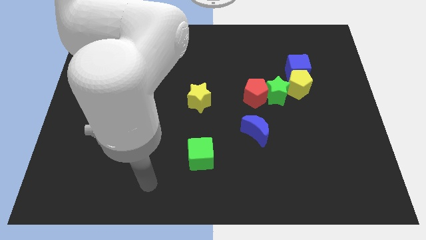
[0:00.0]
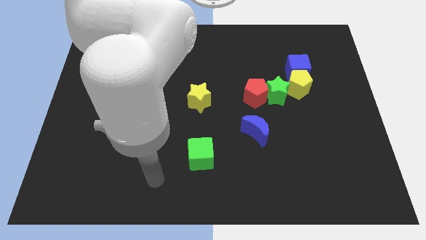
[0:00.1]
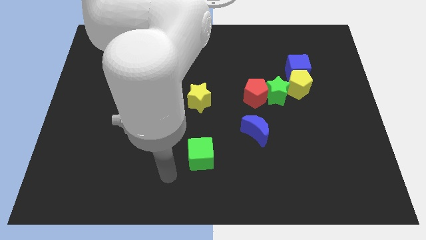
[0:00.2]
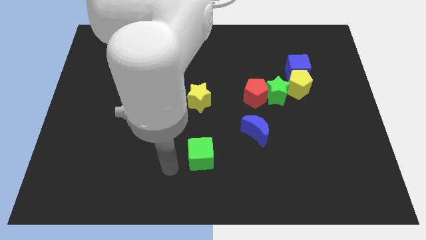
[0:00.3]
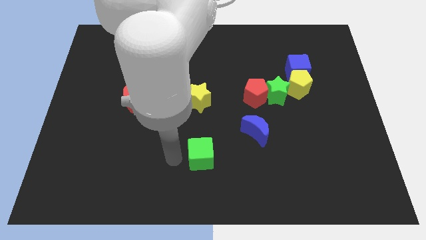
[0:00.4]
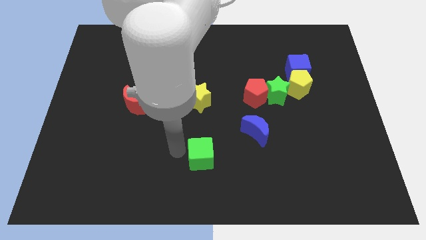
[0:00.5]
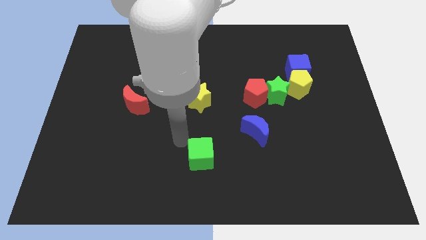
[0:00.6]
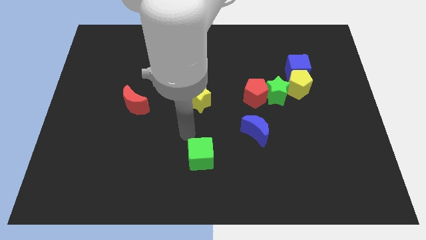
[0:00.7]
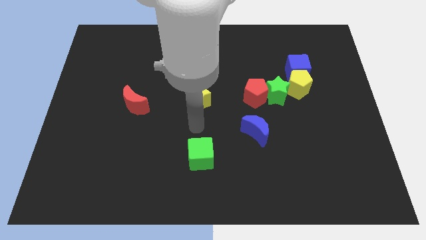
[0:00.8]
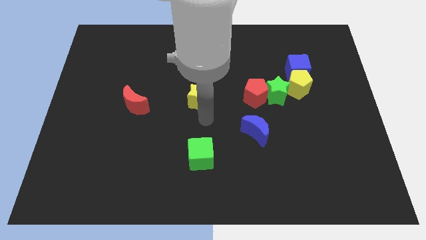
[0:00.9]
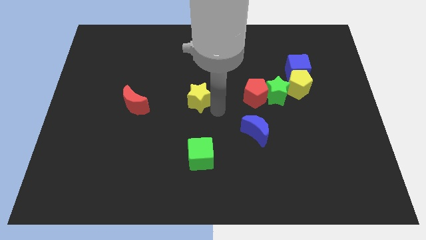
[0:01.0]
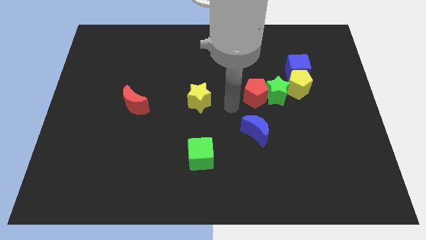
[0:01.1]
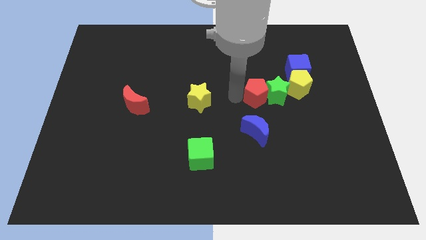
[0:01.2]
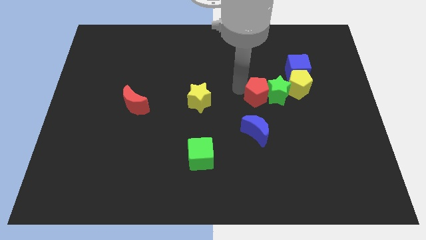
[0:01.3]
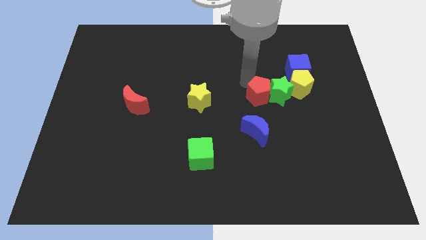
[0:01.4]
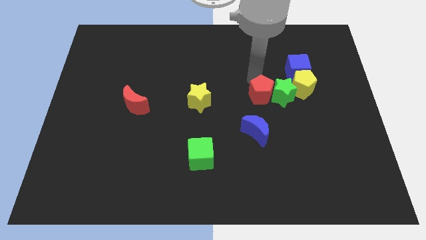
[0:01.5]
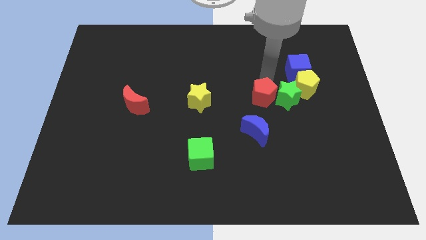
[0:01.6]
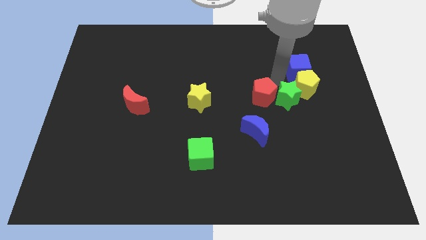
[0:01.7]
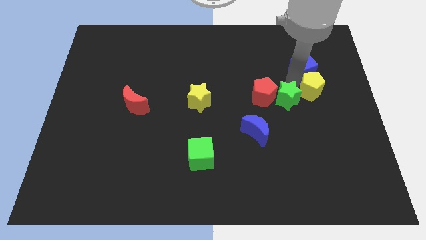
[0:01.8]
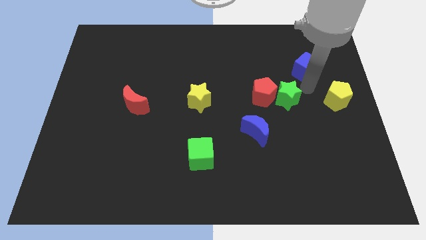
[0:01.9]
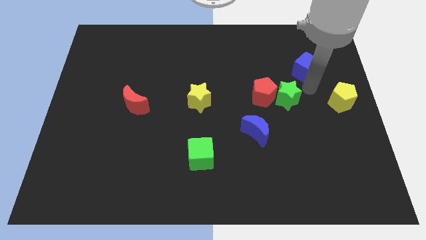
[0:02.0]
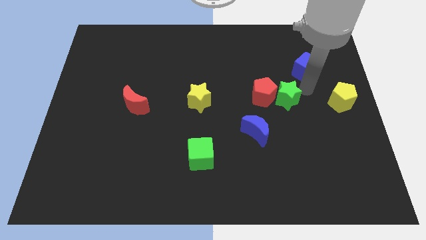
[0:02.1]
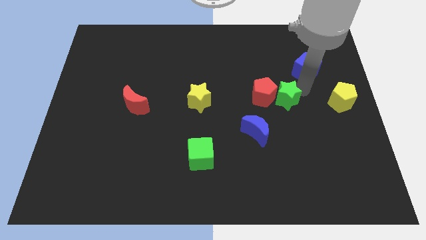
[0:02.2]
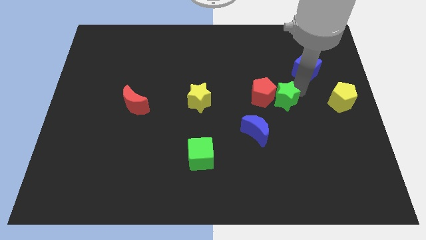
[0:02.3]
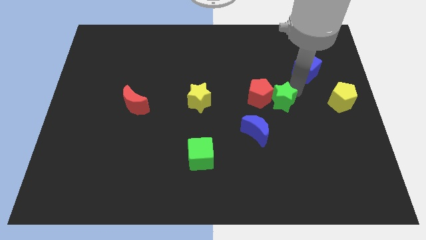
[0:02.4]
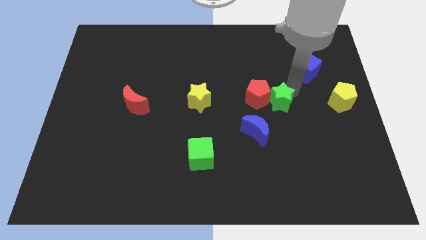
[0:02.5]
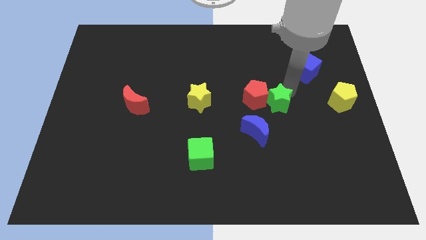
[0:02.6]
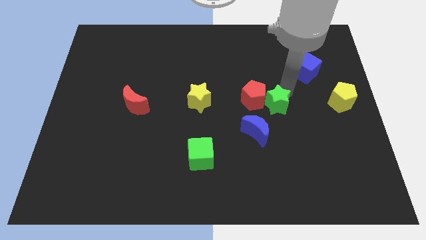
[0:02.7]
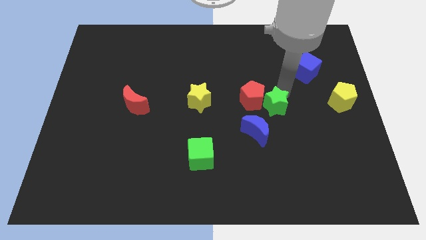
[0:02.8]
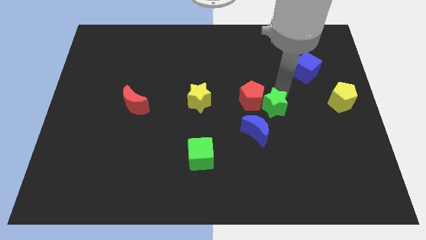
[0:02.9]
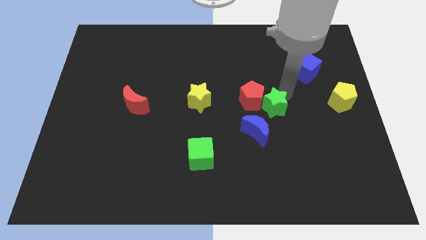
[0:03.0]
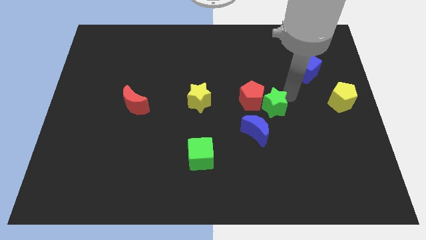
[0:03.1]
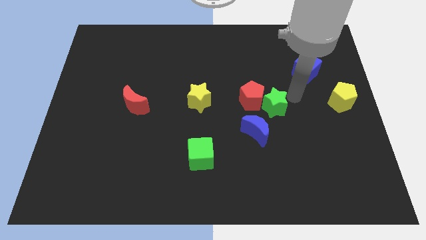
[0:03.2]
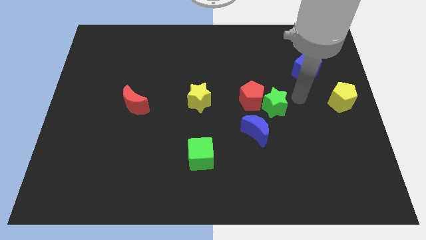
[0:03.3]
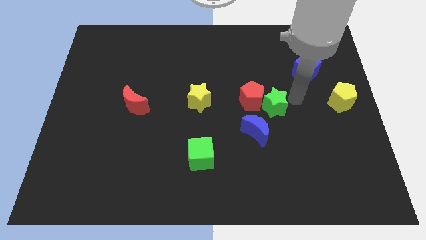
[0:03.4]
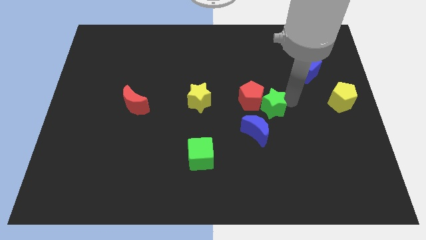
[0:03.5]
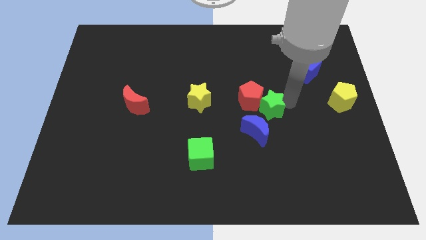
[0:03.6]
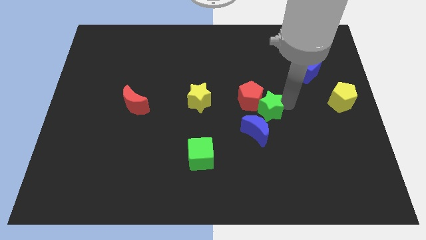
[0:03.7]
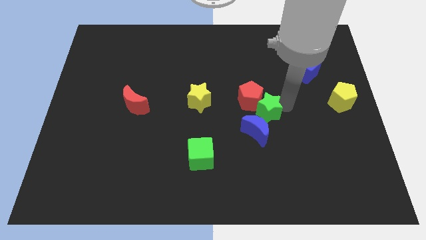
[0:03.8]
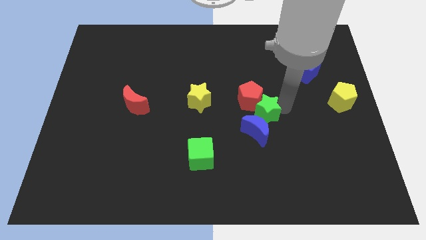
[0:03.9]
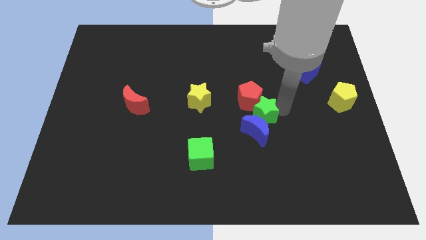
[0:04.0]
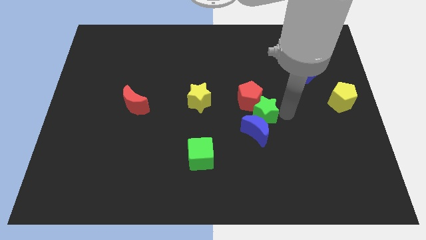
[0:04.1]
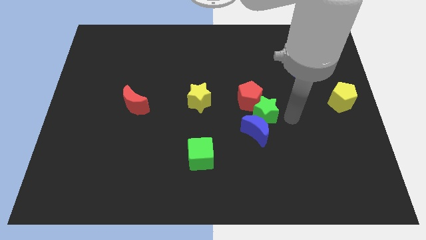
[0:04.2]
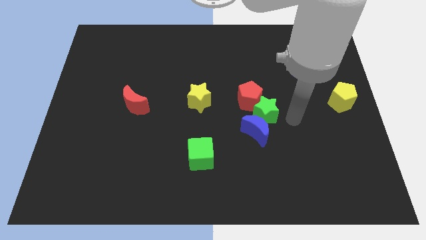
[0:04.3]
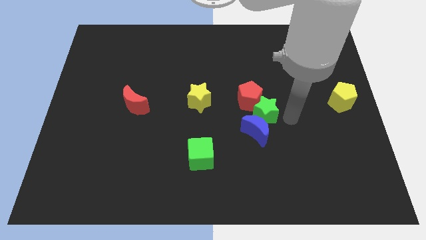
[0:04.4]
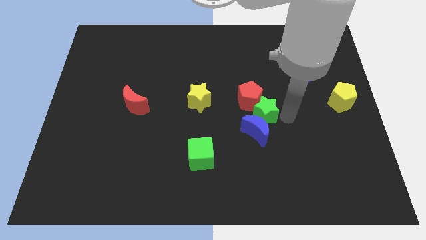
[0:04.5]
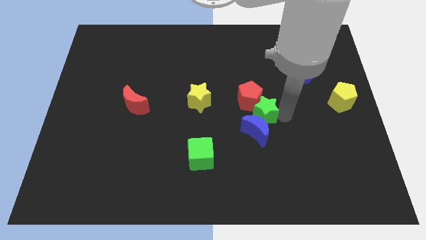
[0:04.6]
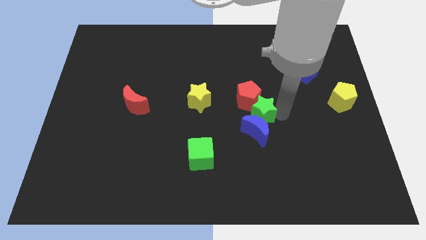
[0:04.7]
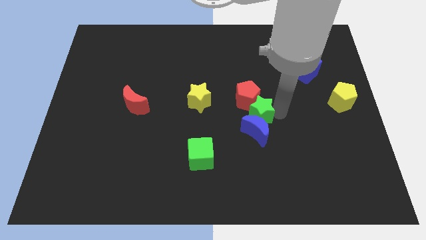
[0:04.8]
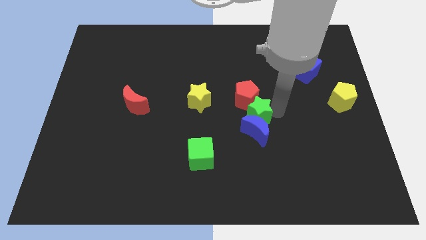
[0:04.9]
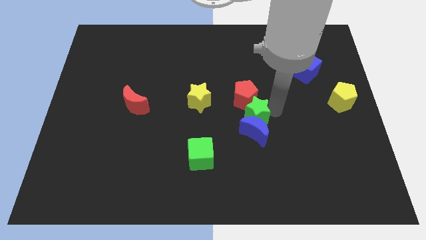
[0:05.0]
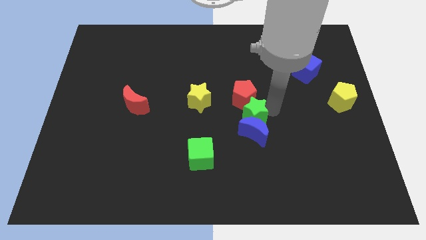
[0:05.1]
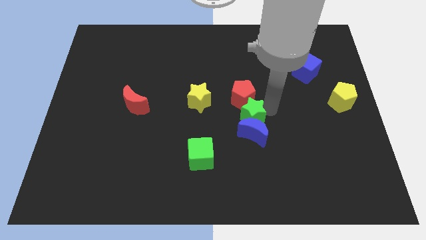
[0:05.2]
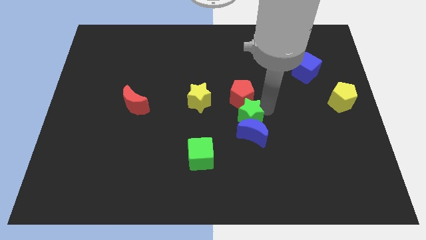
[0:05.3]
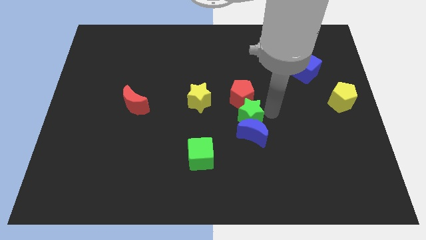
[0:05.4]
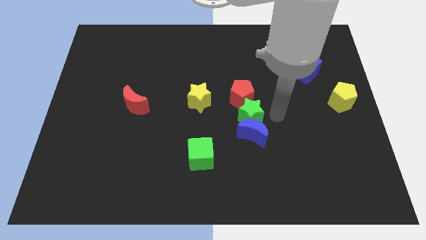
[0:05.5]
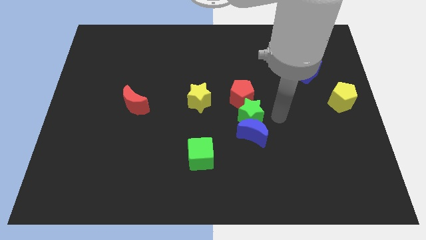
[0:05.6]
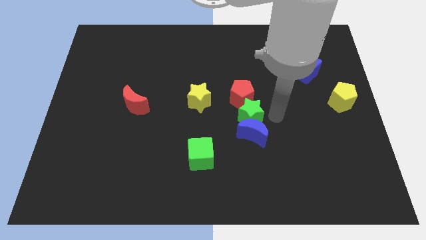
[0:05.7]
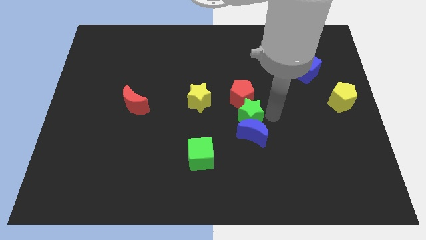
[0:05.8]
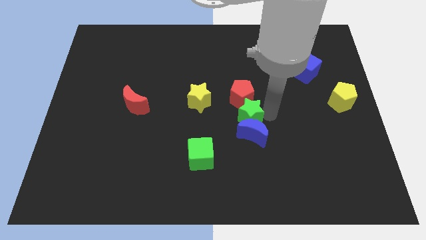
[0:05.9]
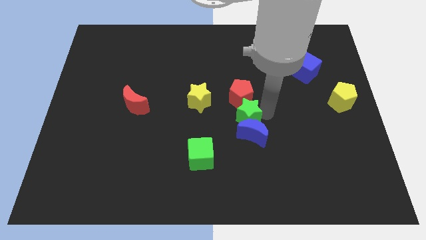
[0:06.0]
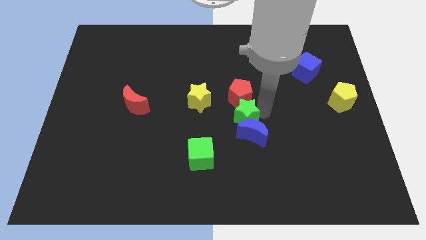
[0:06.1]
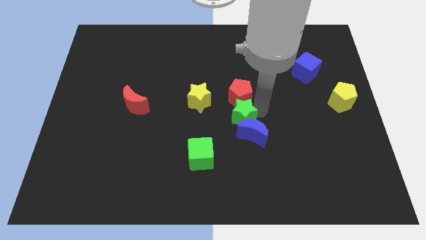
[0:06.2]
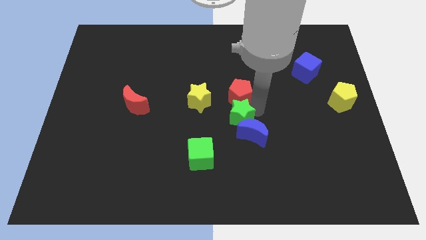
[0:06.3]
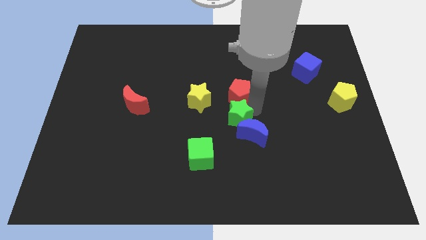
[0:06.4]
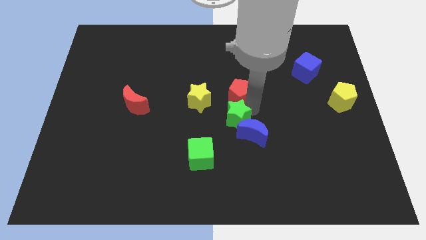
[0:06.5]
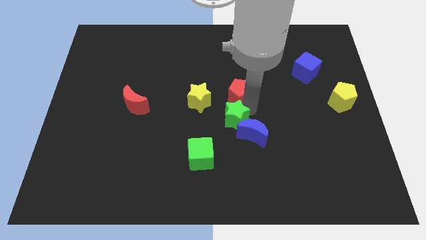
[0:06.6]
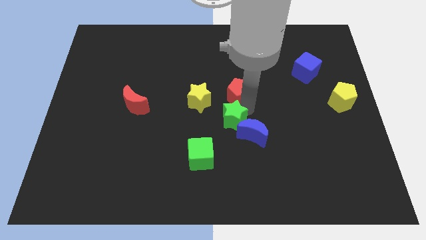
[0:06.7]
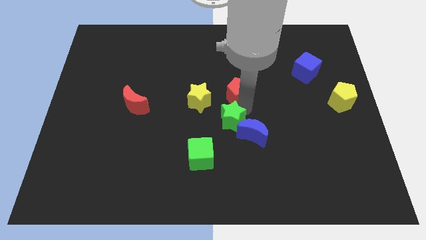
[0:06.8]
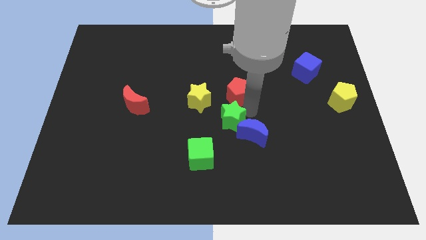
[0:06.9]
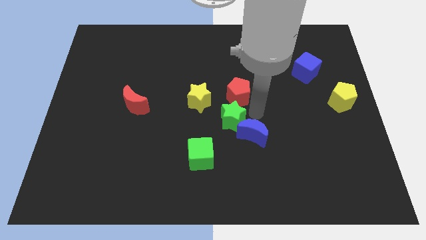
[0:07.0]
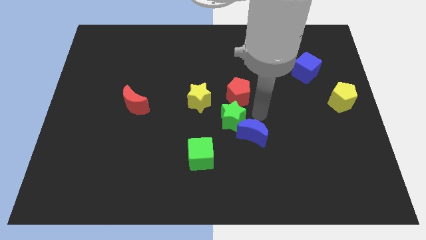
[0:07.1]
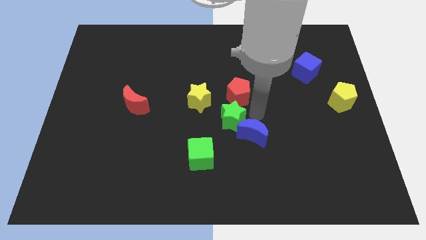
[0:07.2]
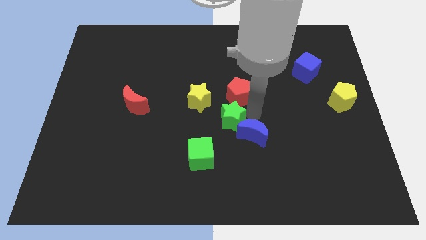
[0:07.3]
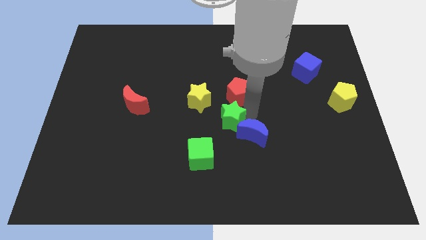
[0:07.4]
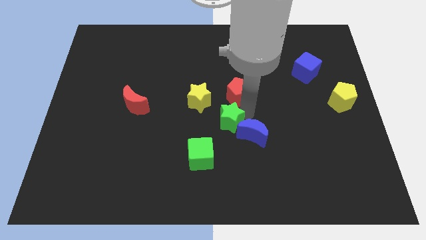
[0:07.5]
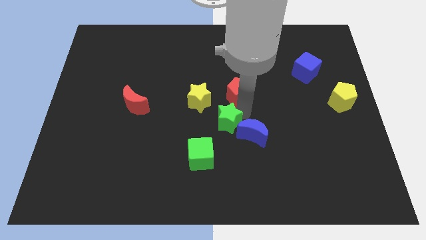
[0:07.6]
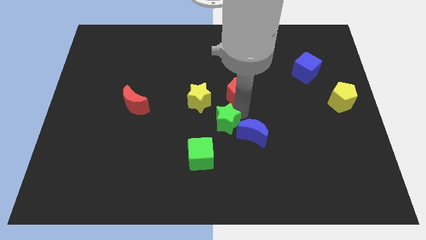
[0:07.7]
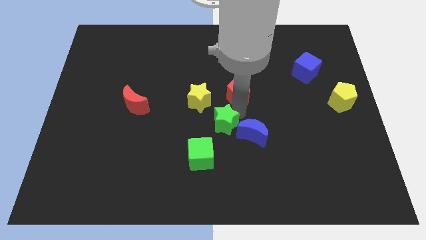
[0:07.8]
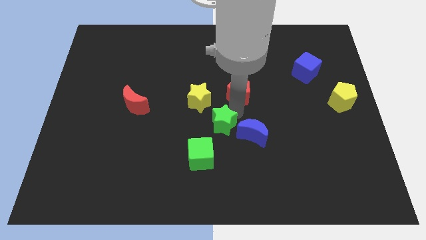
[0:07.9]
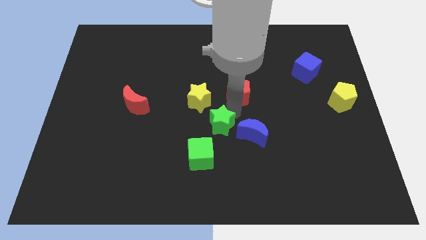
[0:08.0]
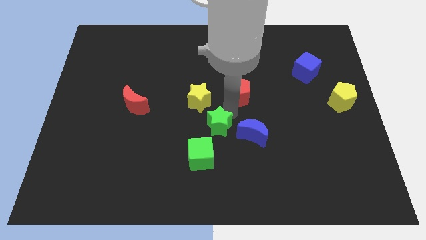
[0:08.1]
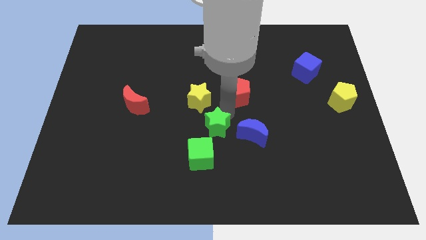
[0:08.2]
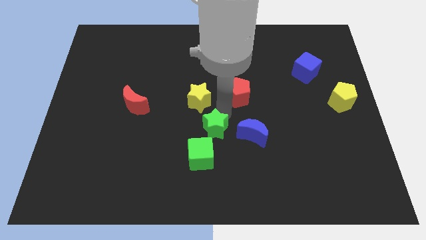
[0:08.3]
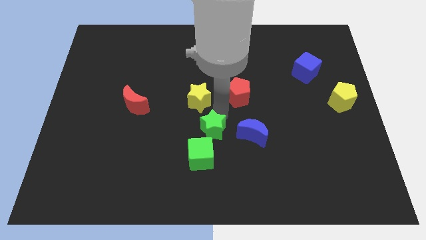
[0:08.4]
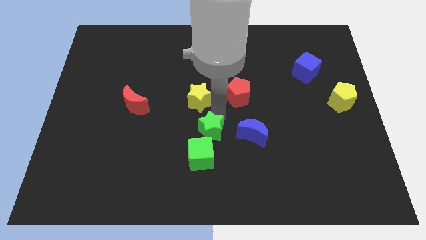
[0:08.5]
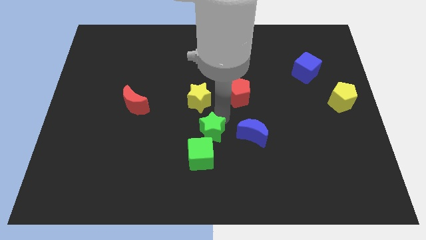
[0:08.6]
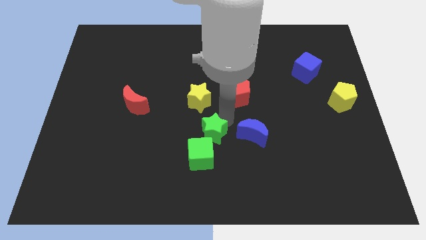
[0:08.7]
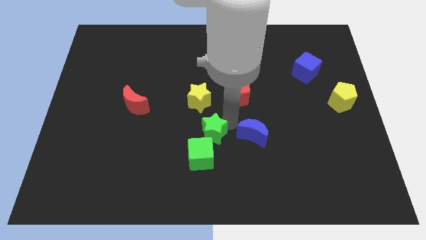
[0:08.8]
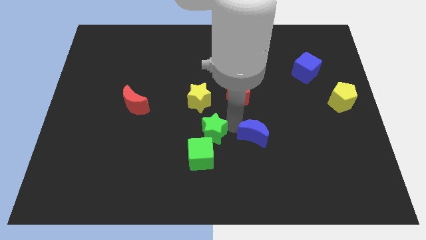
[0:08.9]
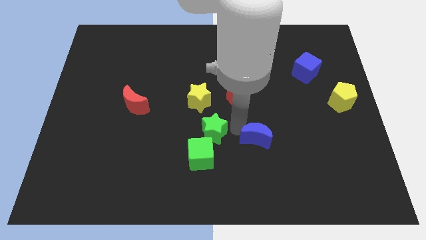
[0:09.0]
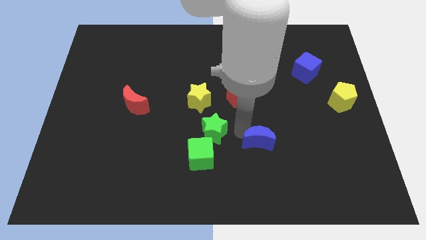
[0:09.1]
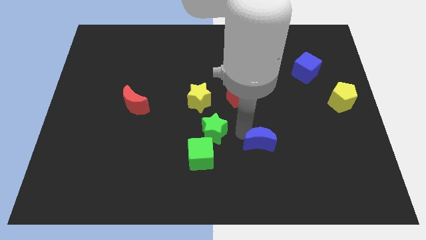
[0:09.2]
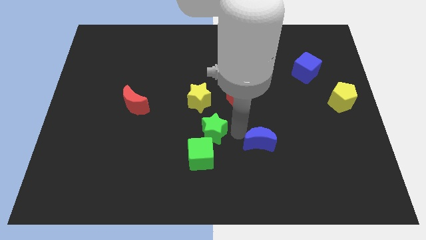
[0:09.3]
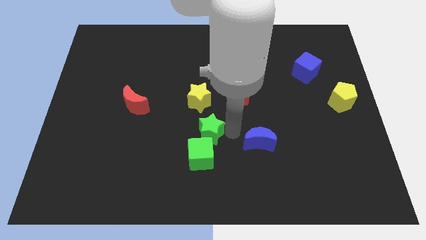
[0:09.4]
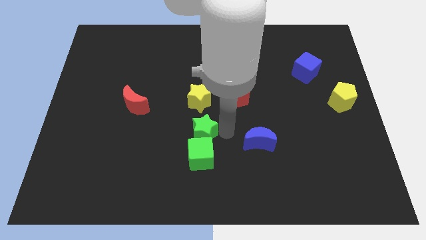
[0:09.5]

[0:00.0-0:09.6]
put the green star to the top left of the green cube
